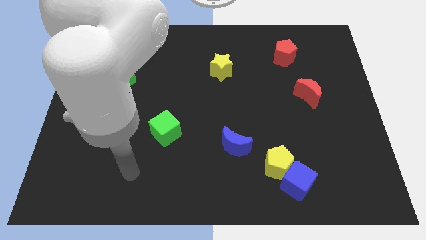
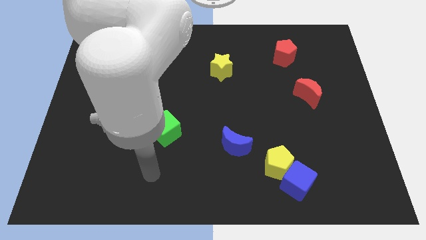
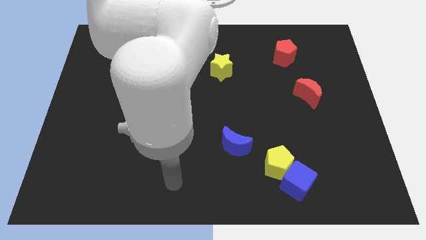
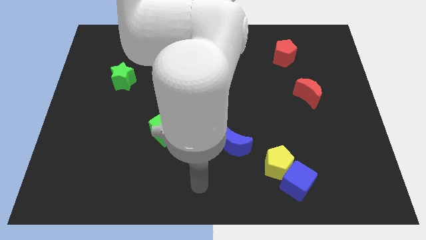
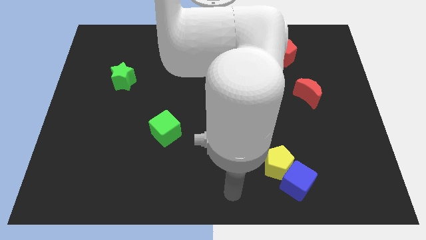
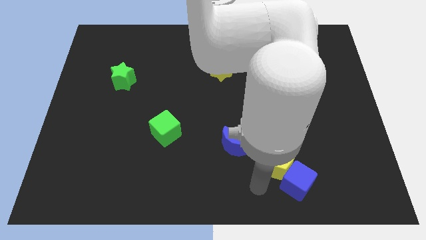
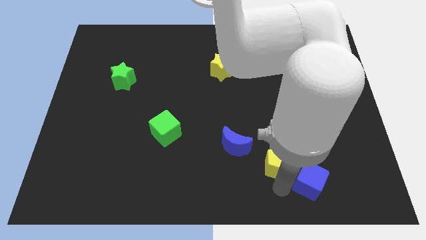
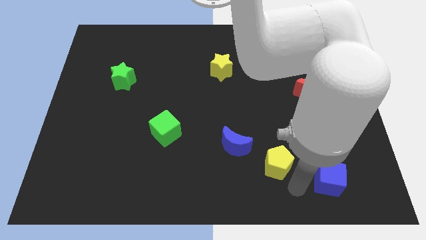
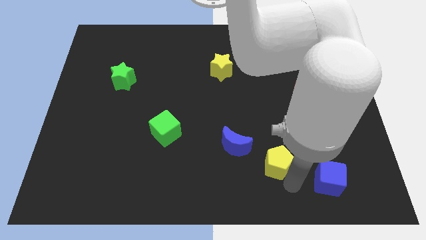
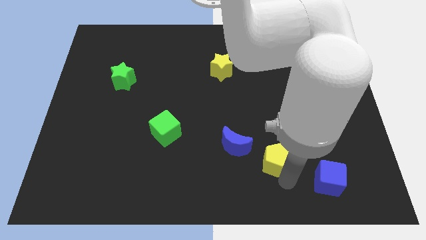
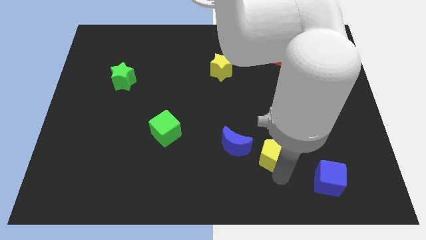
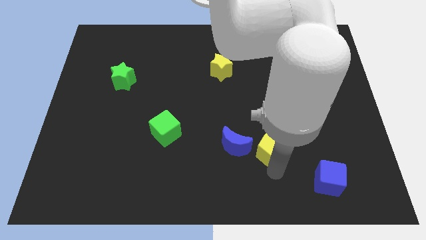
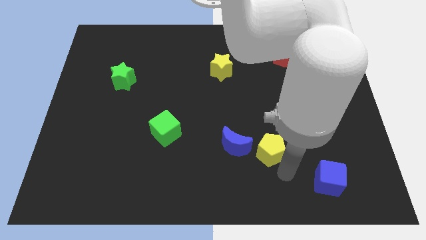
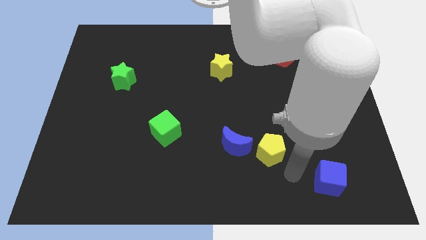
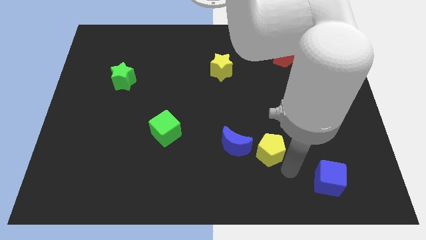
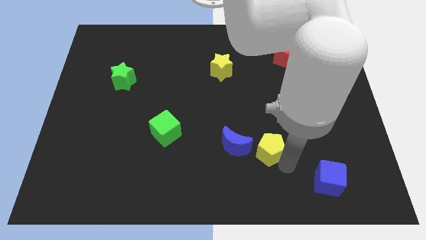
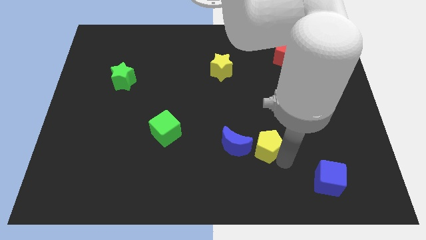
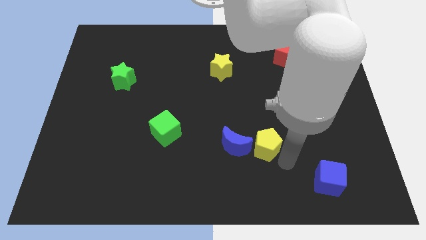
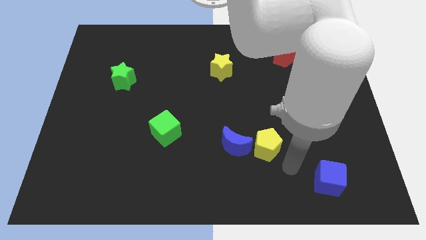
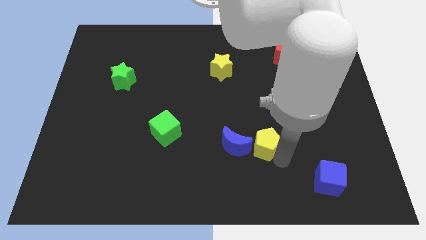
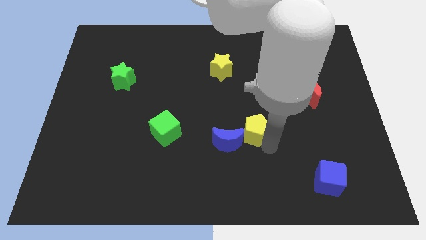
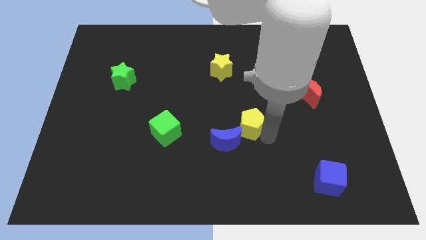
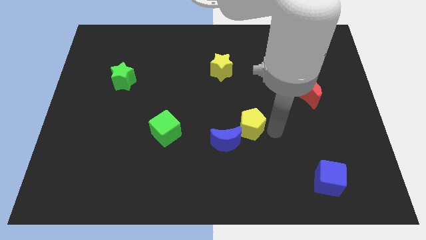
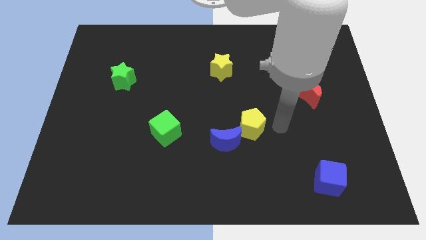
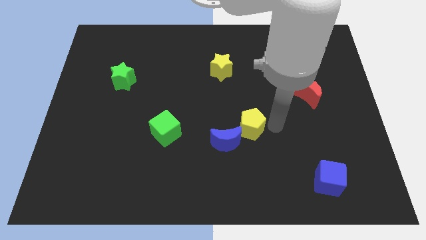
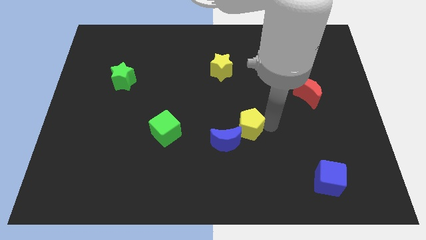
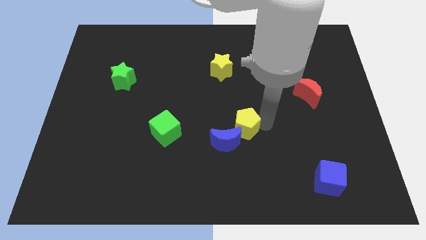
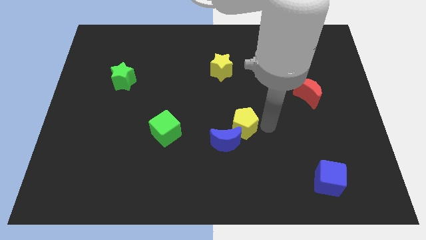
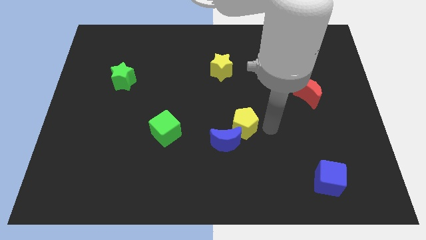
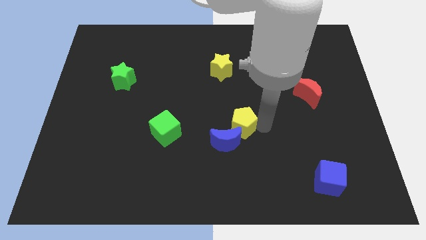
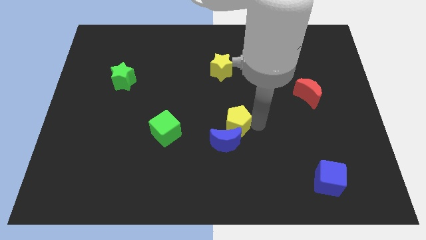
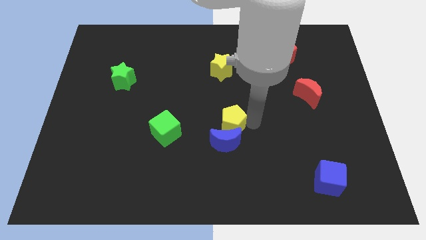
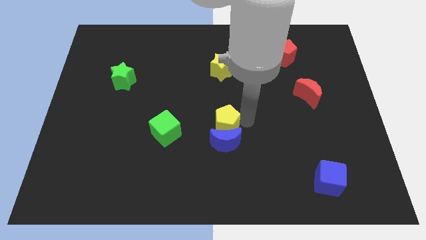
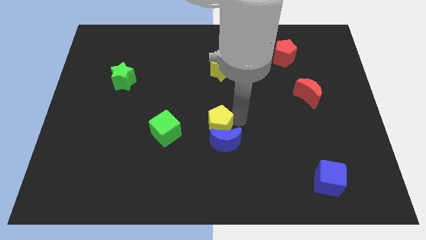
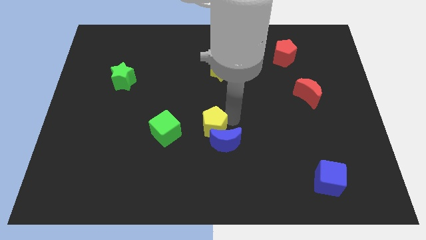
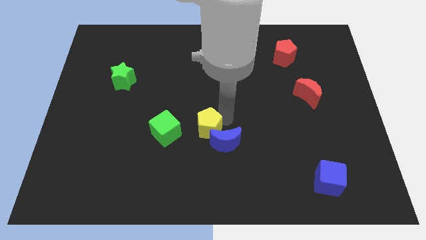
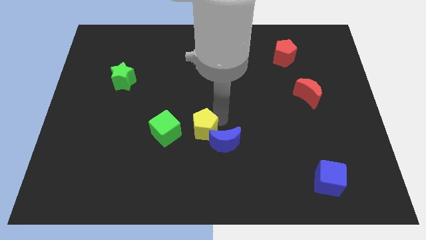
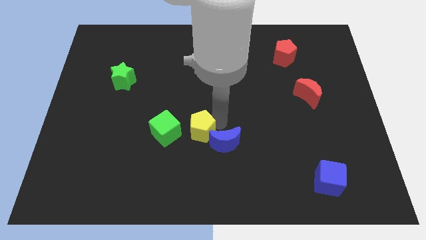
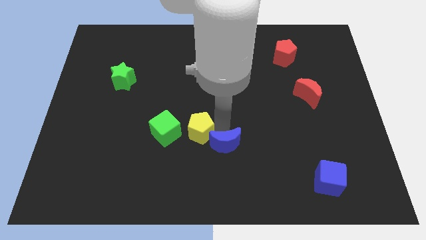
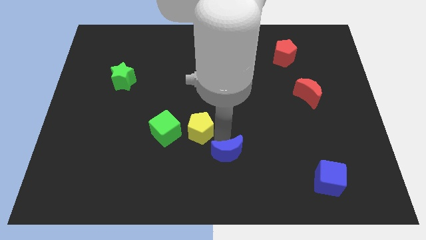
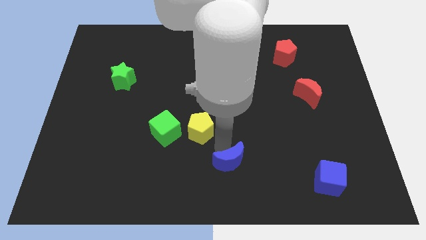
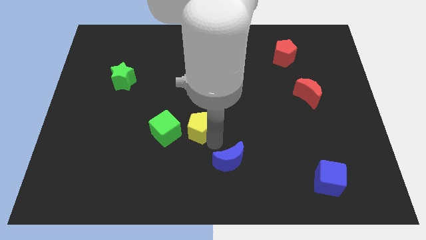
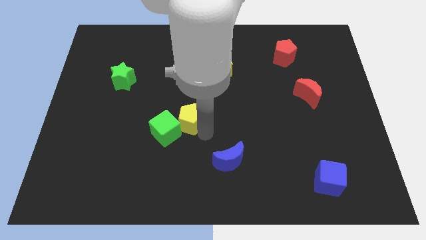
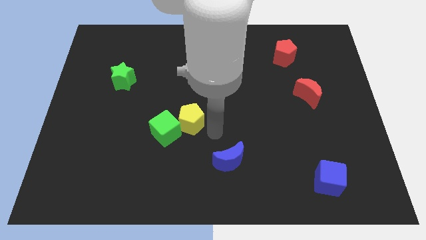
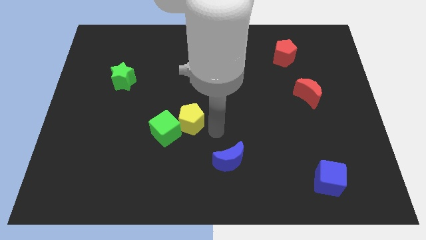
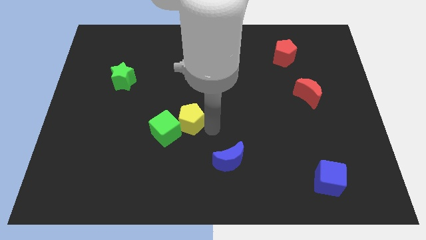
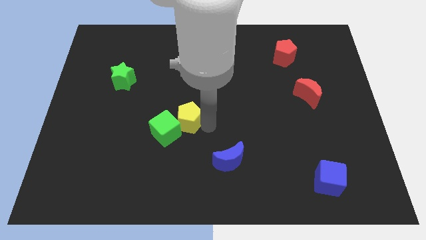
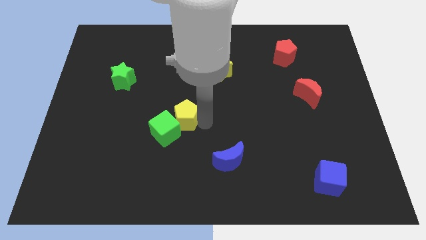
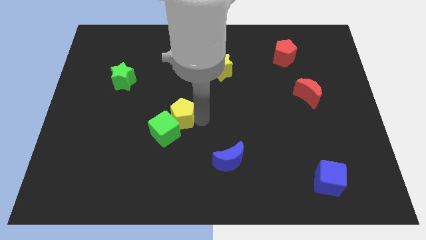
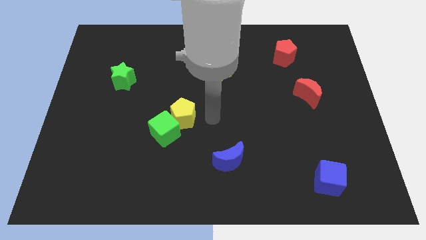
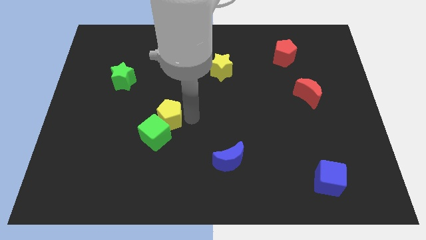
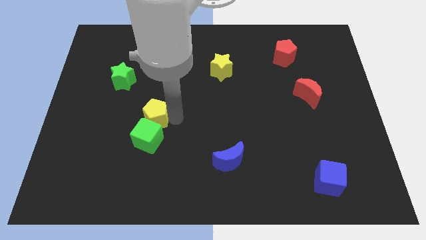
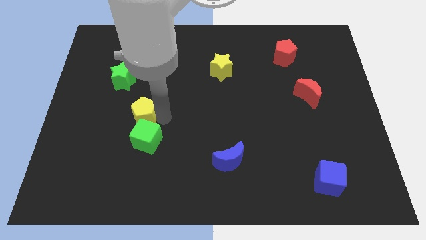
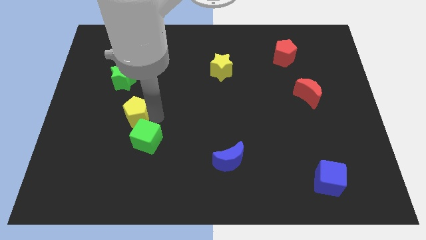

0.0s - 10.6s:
move the yellow pentagon to the bottom of the green star

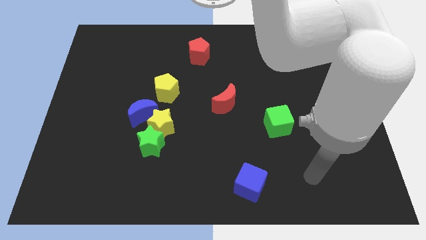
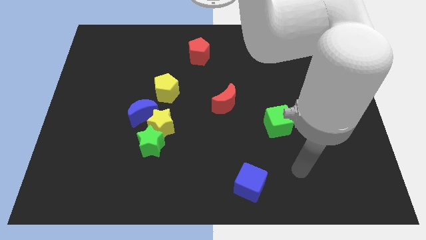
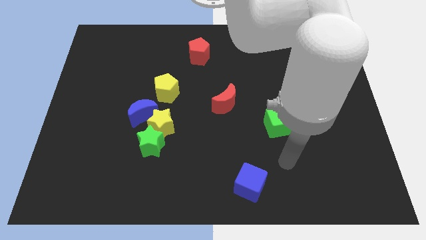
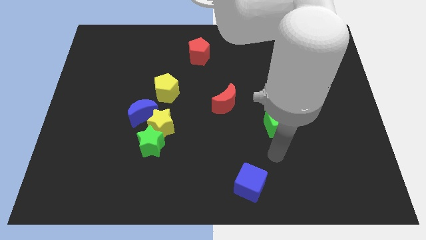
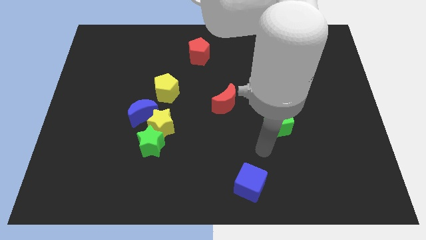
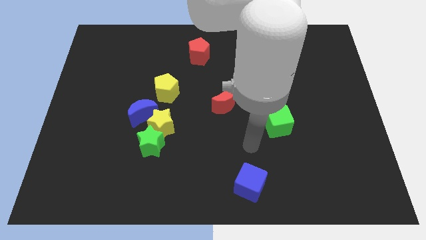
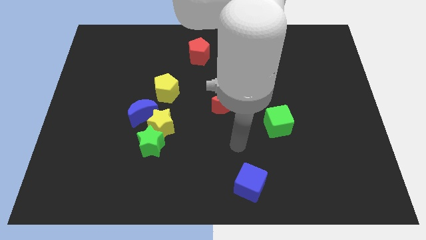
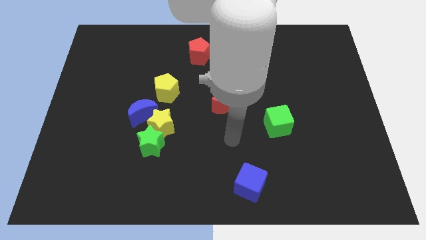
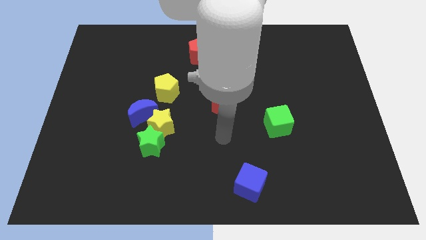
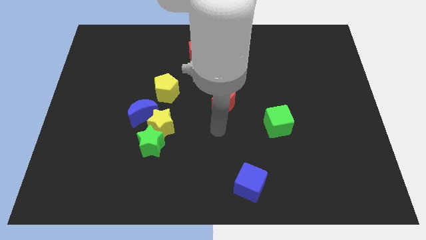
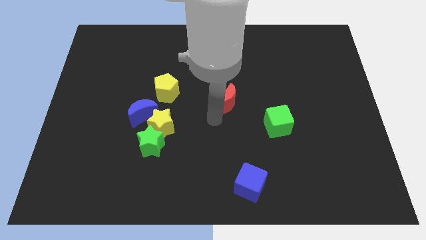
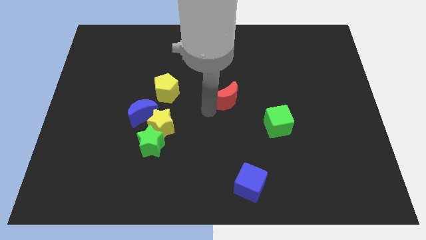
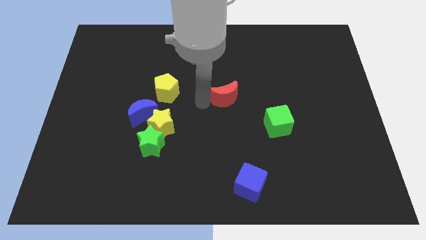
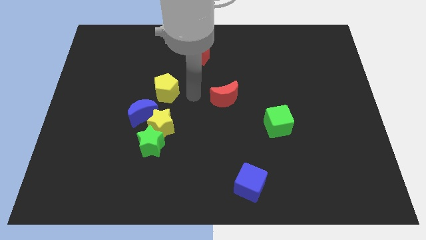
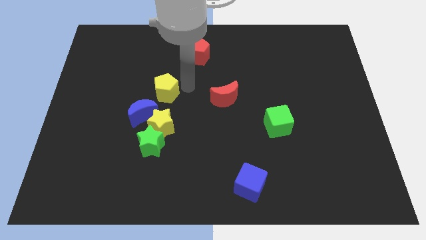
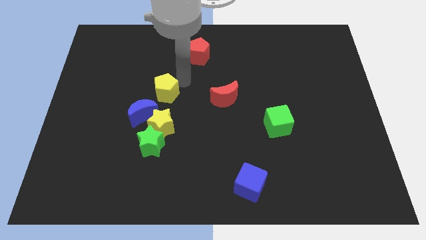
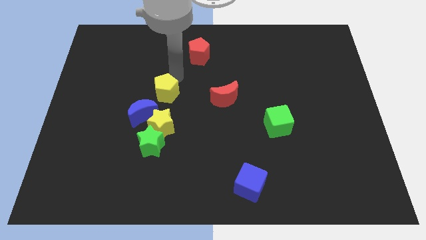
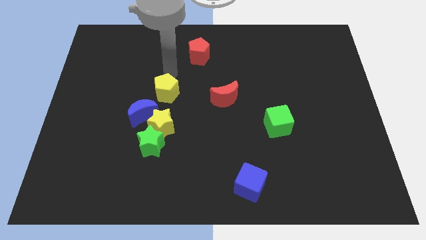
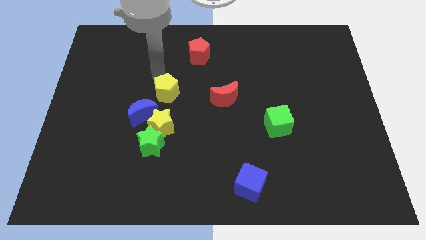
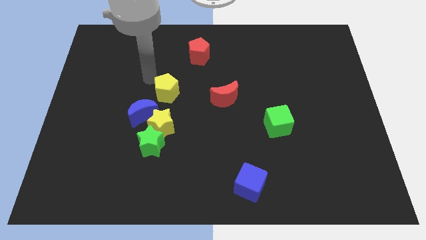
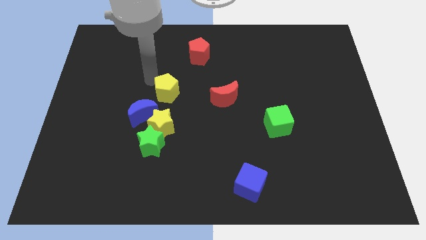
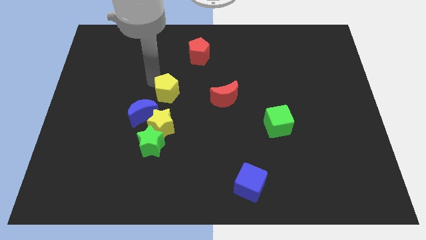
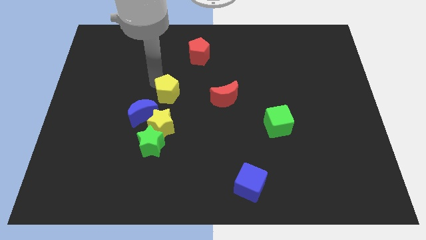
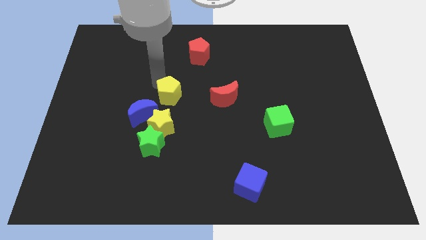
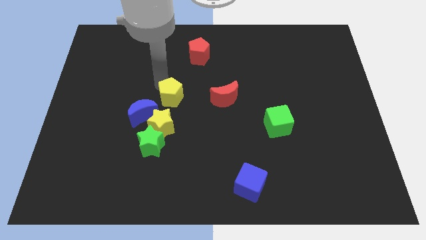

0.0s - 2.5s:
move the yellow pentagon diagonally up and to the right of the yellow star

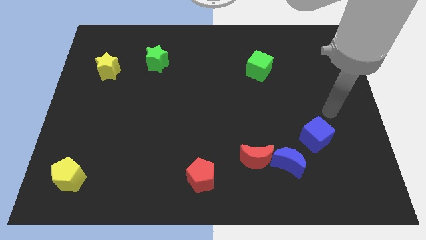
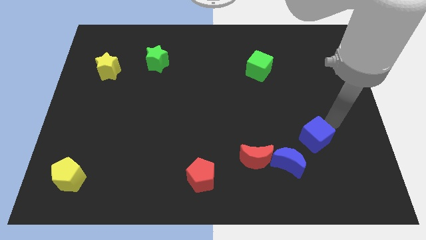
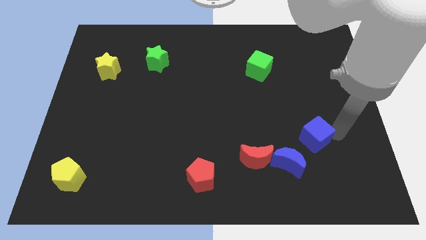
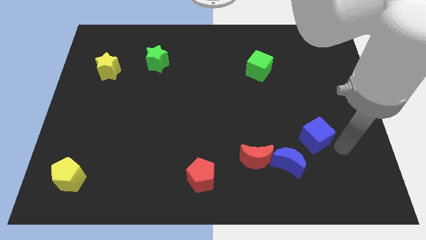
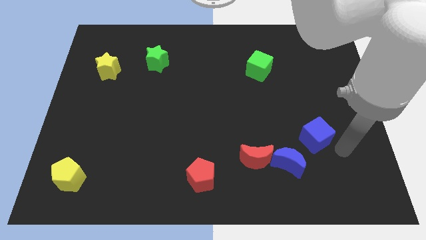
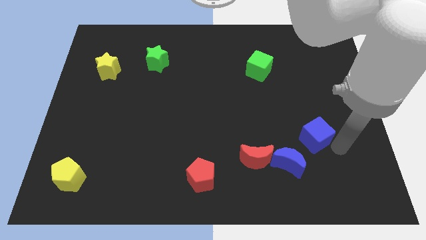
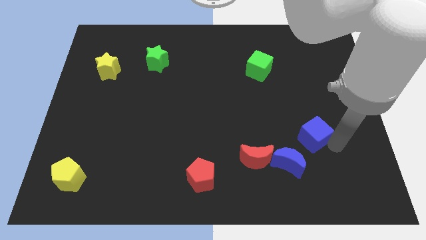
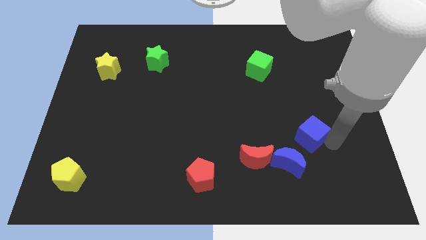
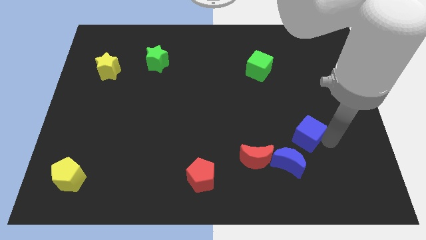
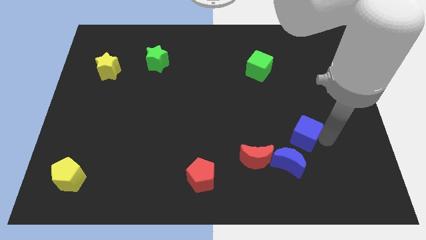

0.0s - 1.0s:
put the blue cube above the blue moon
